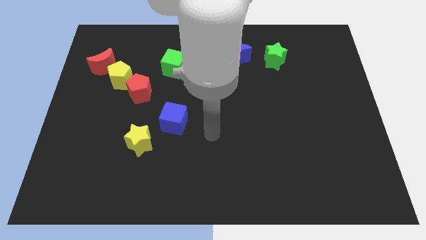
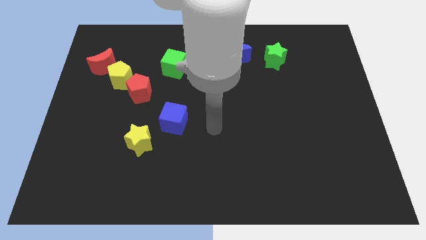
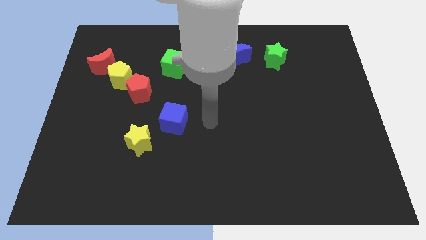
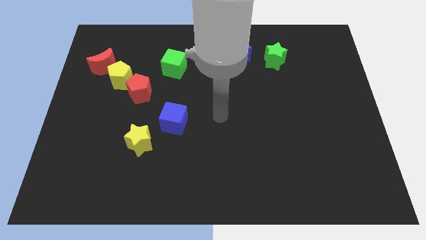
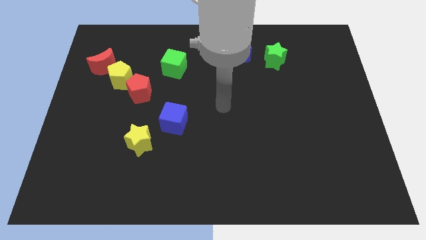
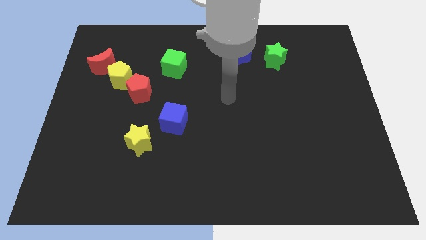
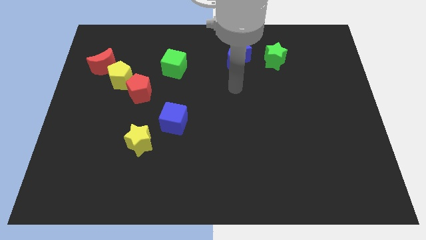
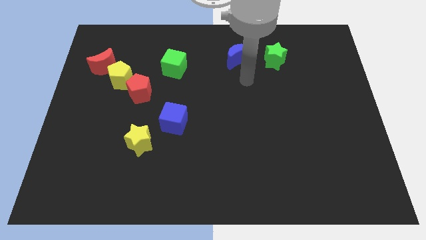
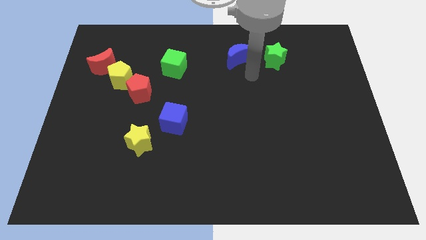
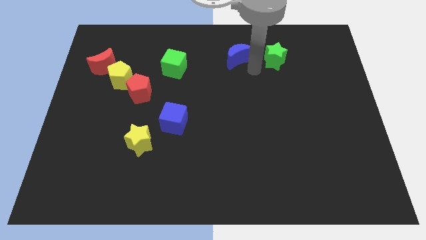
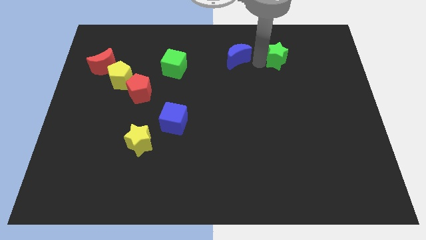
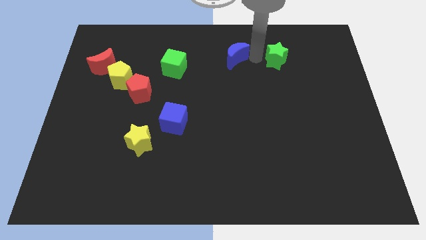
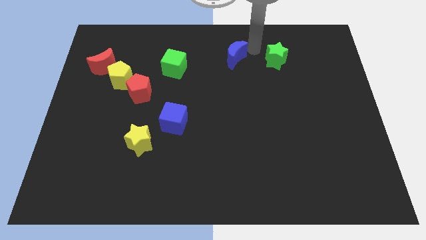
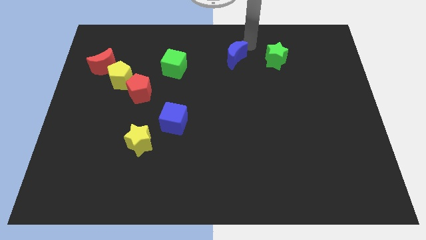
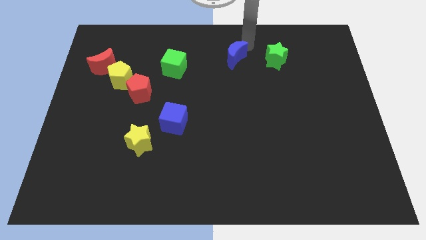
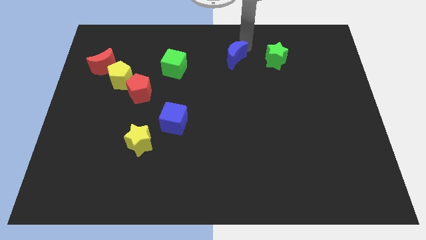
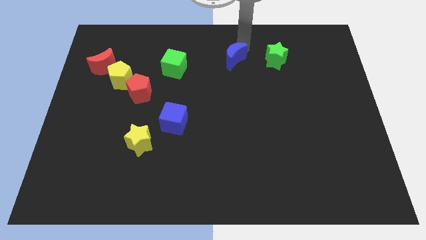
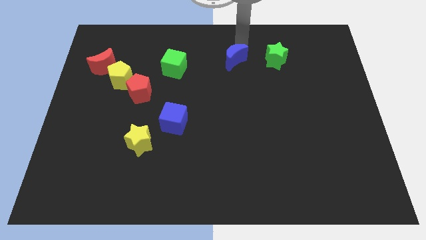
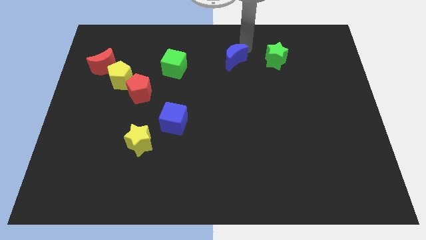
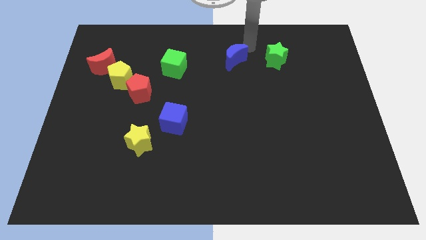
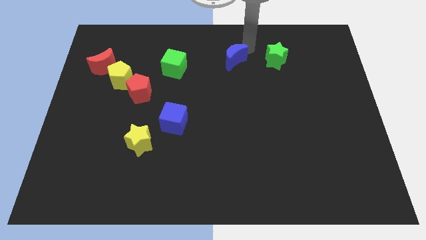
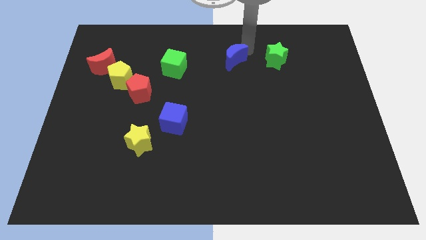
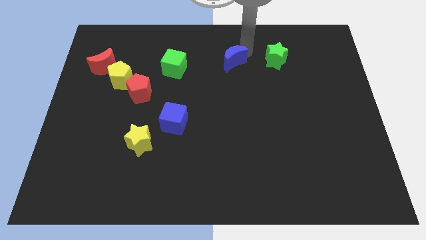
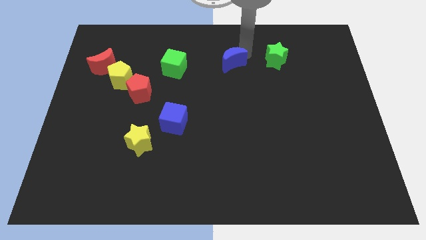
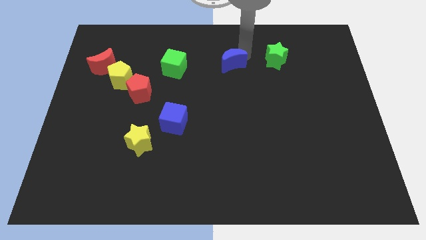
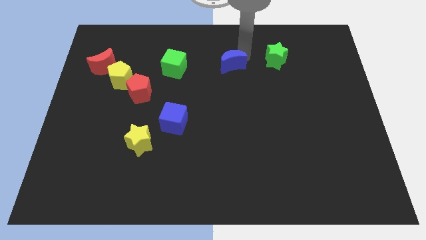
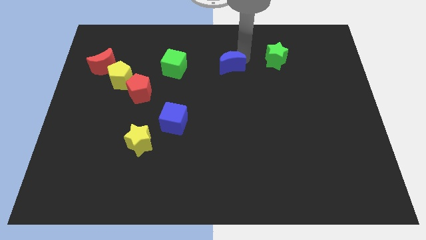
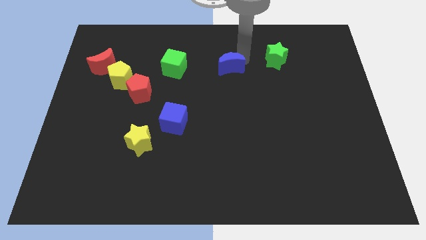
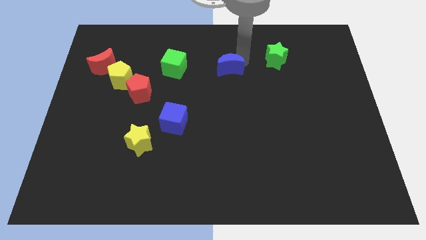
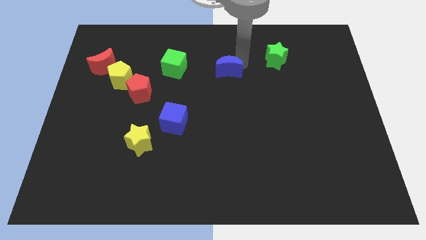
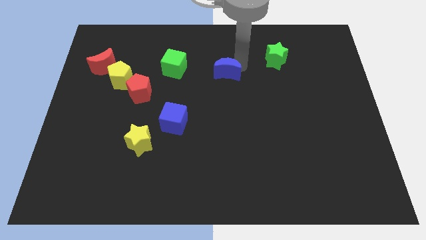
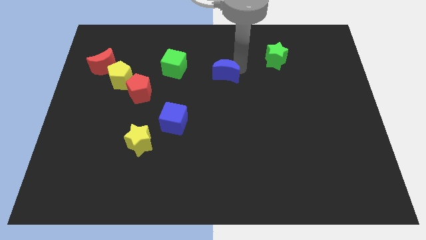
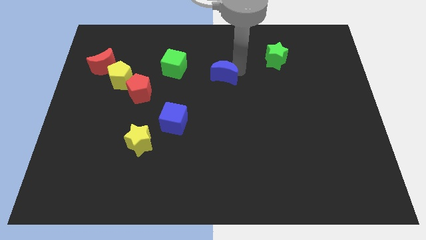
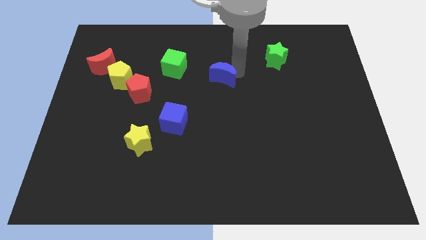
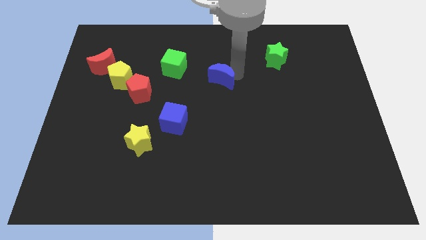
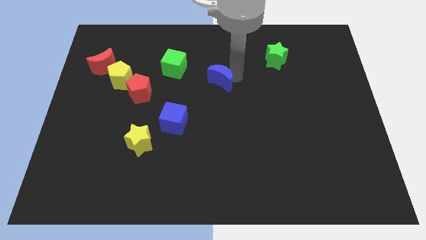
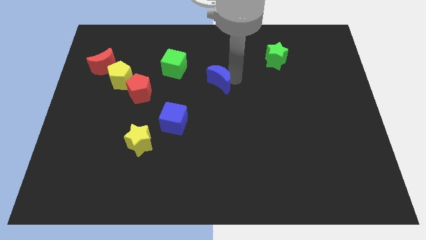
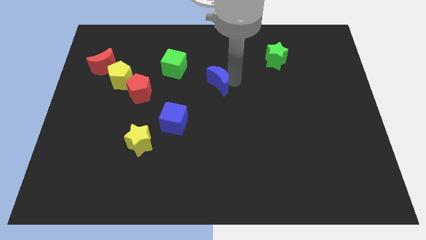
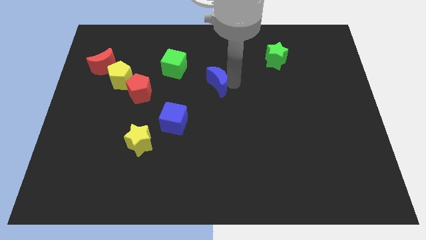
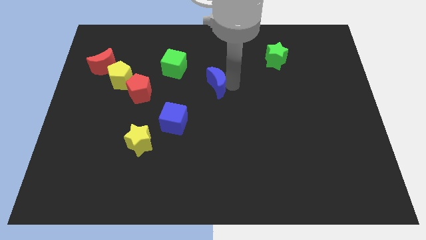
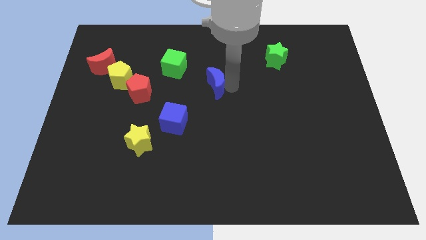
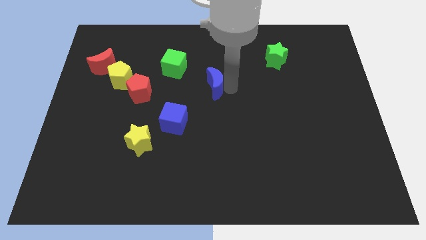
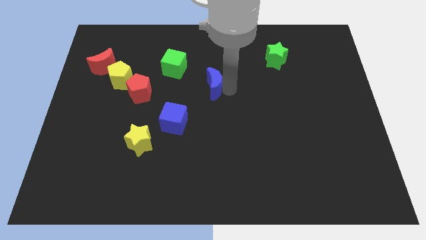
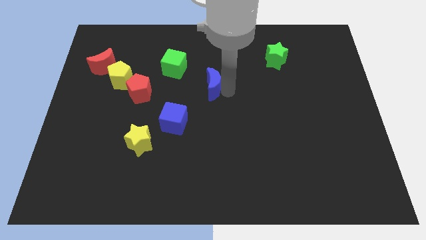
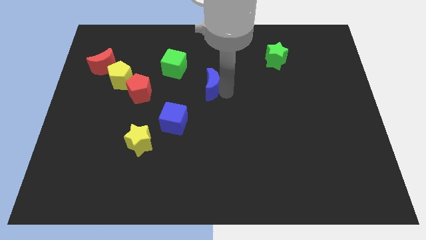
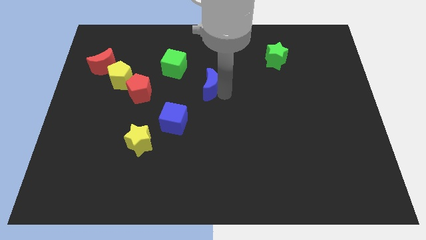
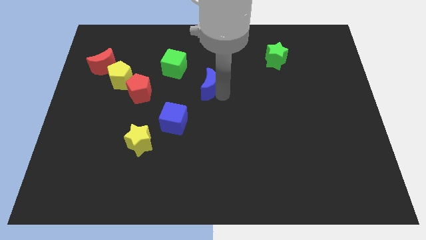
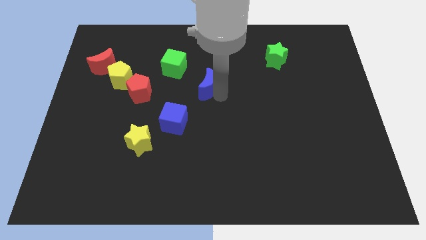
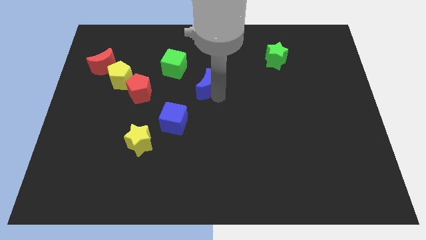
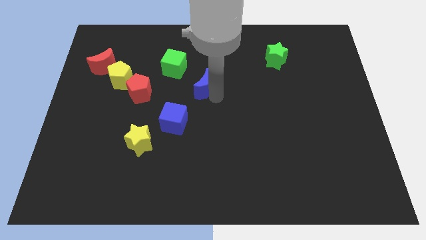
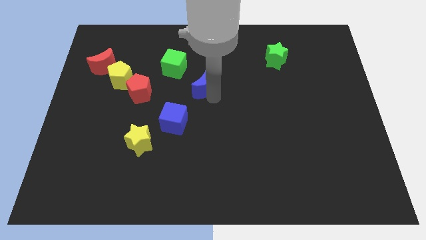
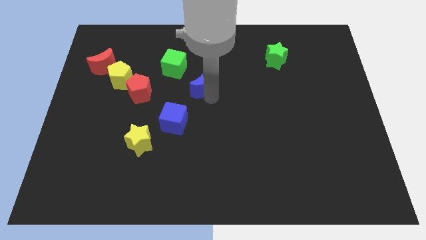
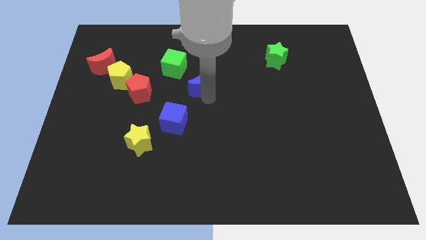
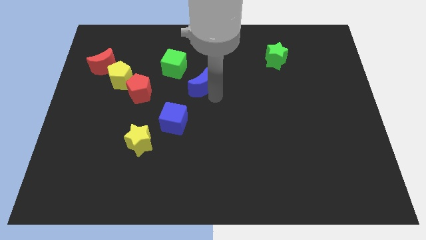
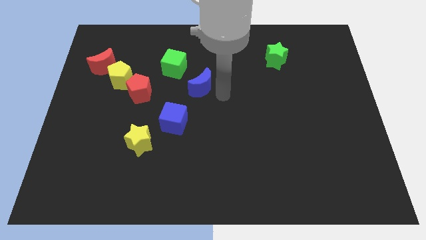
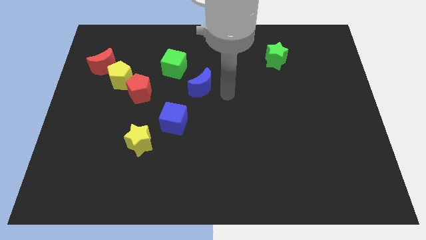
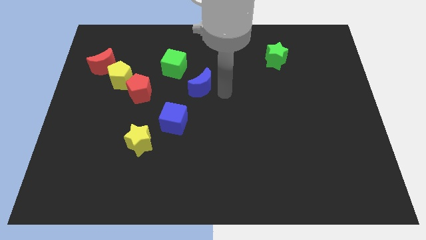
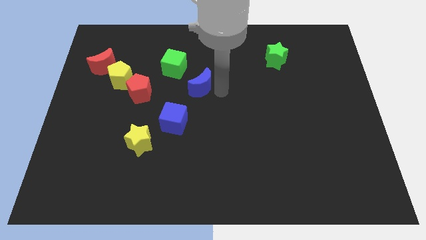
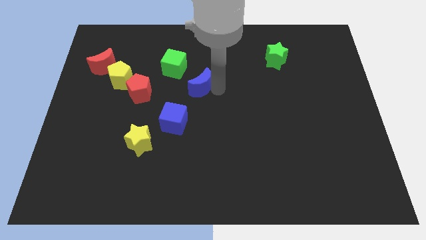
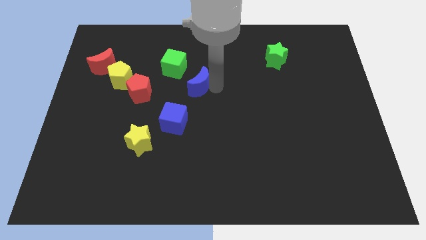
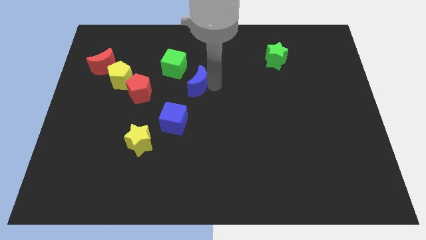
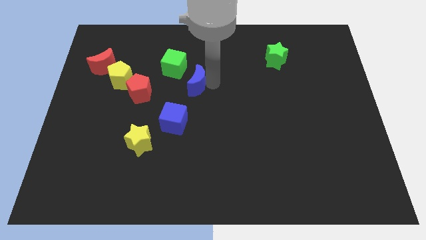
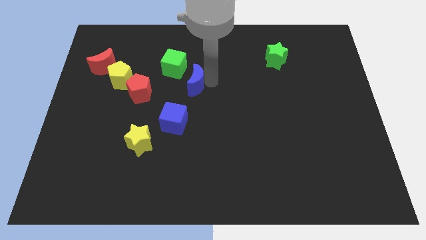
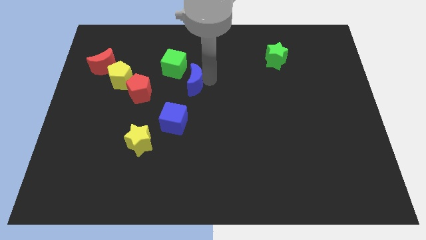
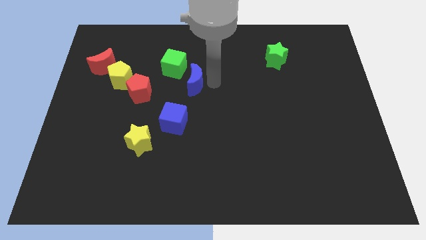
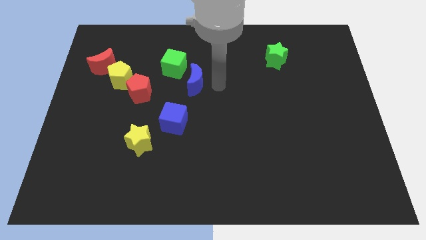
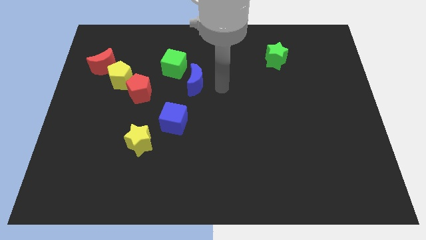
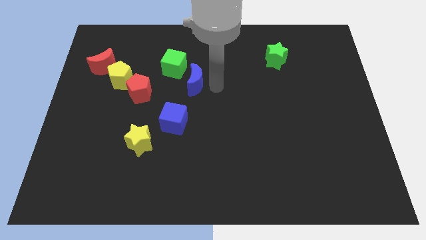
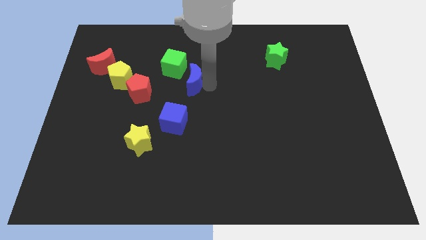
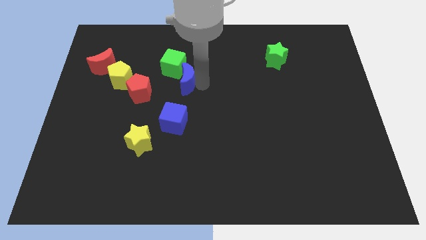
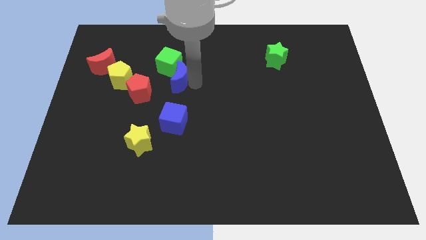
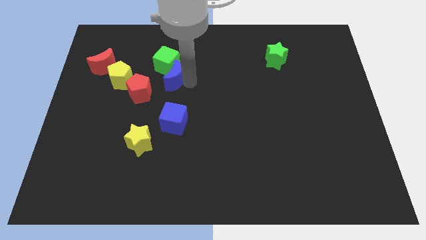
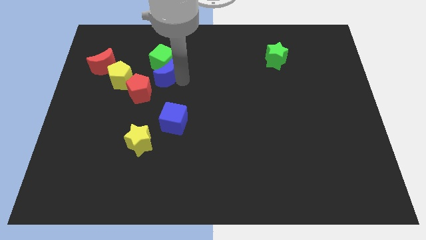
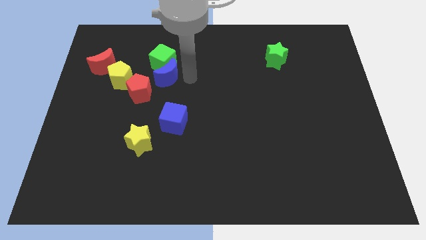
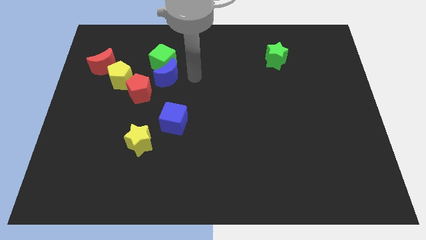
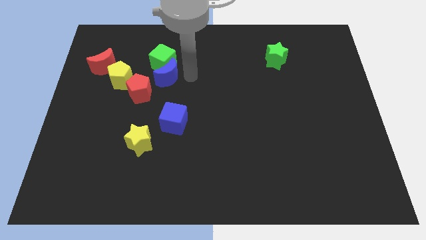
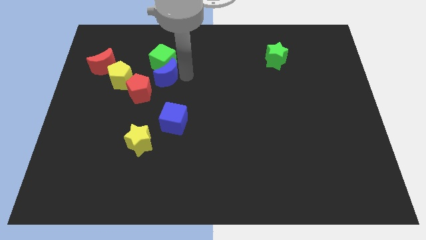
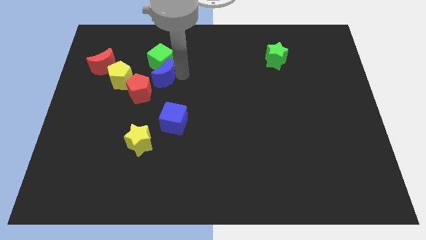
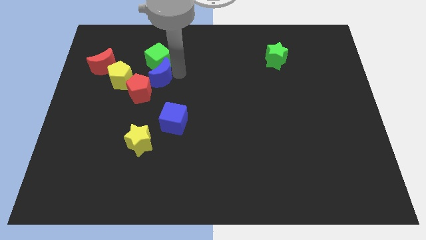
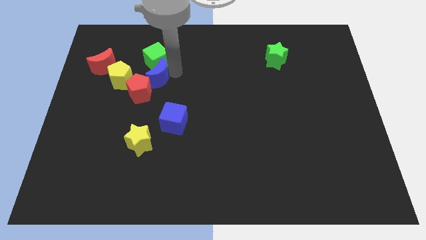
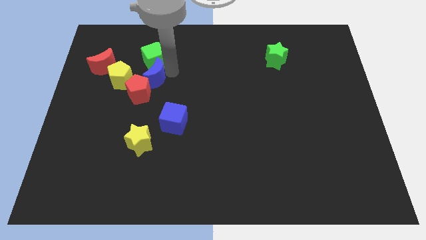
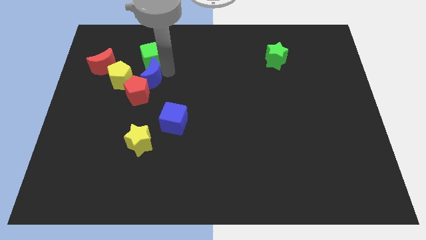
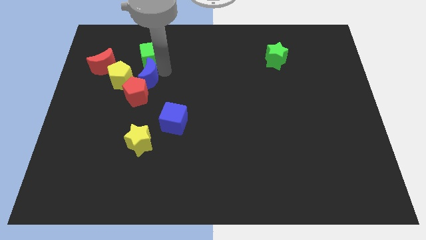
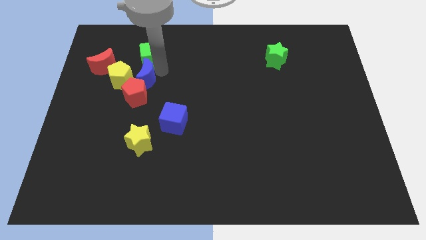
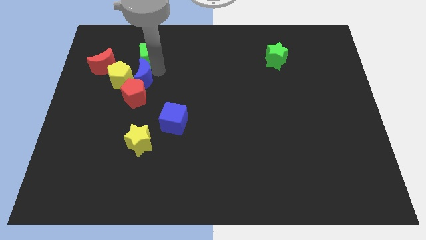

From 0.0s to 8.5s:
put the blue moon next to the yellow pentagon
